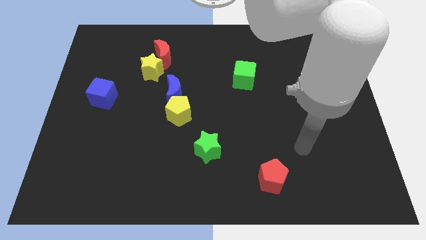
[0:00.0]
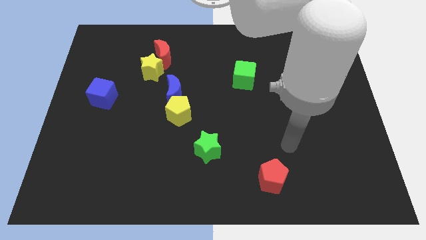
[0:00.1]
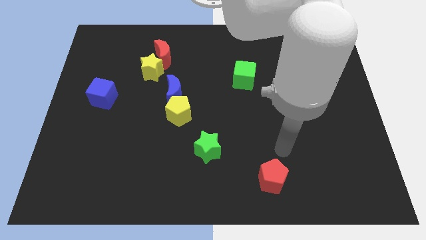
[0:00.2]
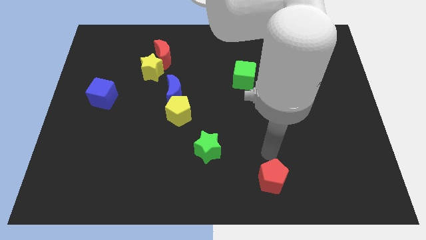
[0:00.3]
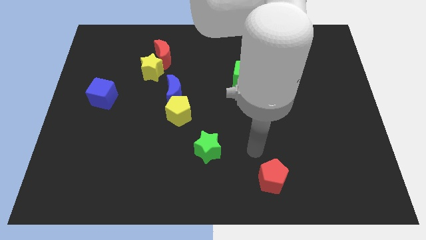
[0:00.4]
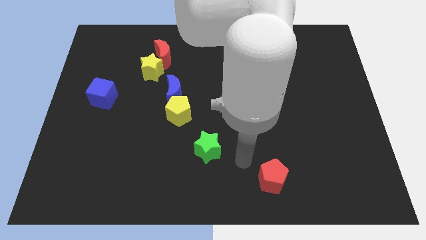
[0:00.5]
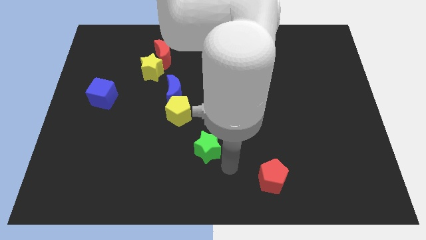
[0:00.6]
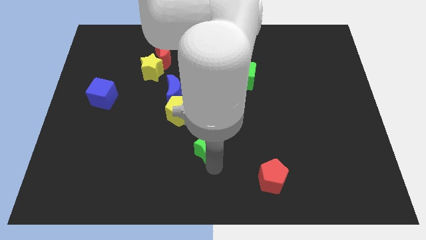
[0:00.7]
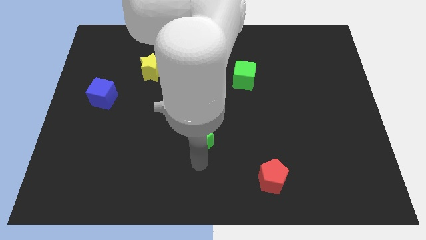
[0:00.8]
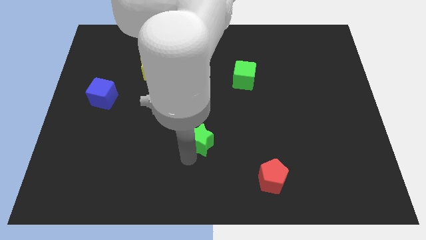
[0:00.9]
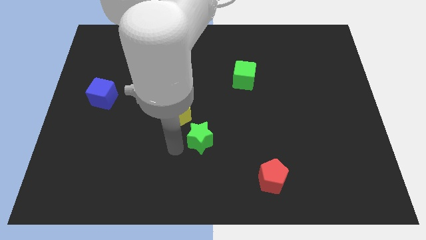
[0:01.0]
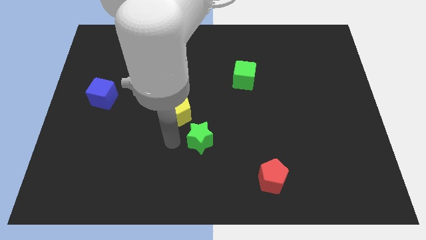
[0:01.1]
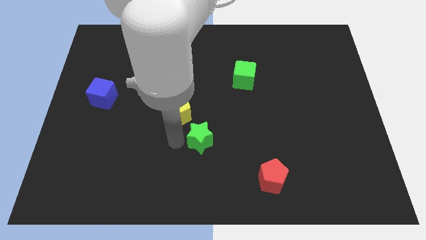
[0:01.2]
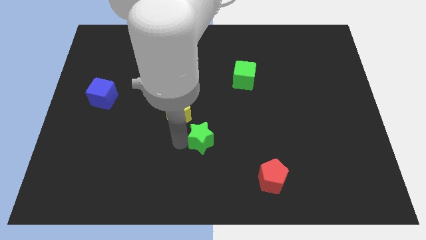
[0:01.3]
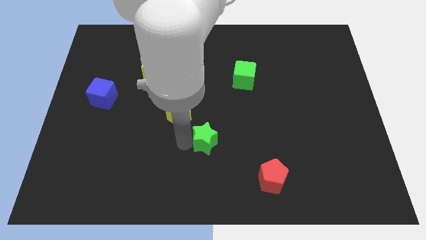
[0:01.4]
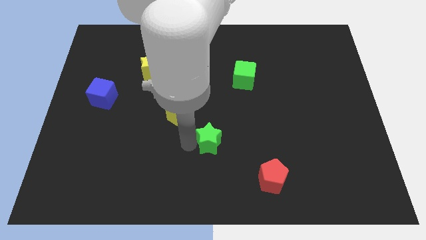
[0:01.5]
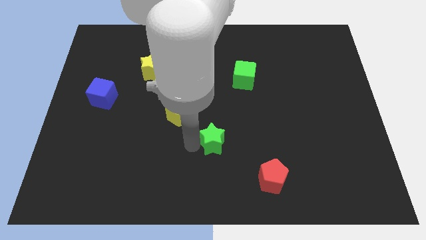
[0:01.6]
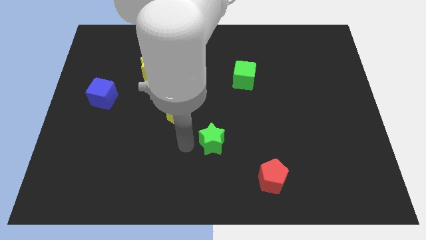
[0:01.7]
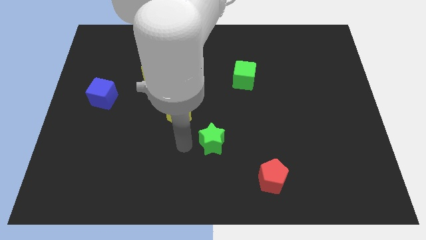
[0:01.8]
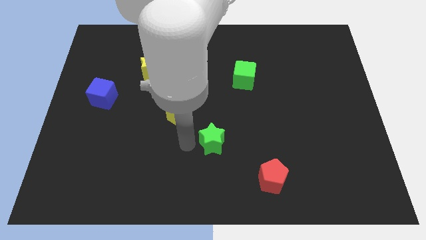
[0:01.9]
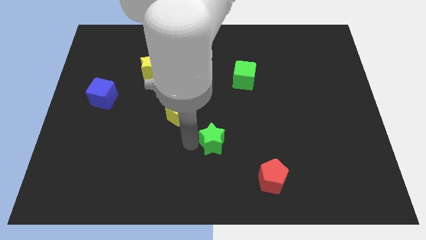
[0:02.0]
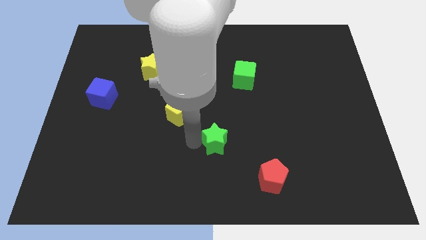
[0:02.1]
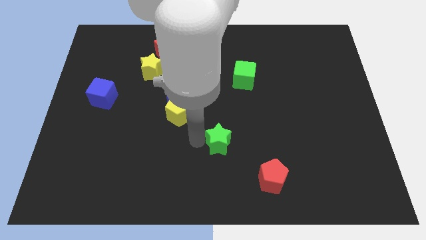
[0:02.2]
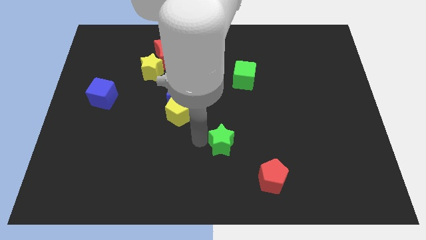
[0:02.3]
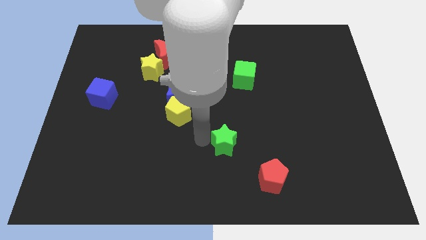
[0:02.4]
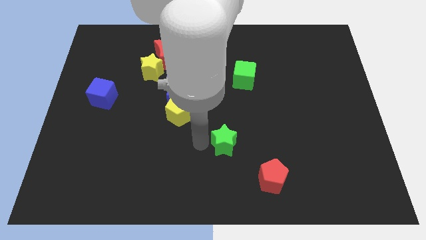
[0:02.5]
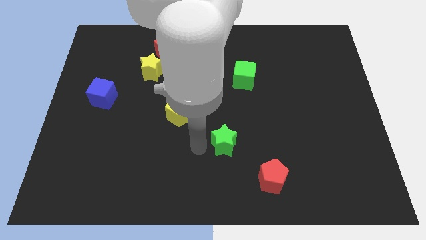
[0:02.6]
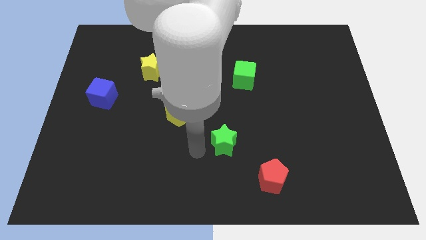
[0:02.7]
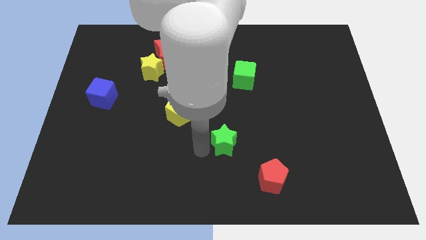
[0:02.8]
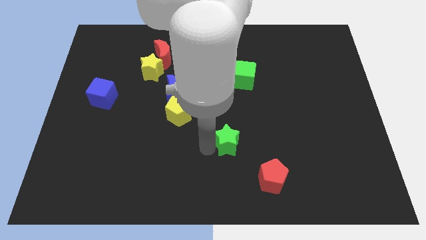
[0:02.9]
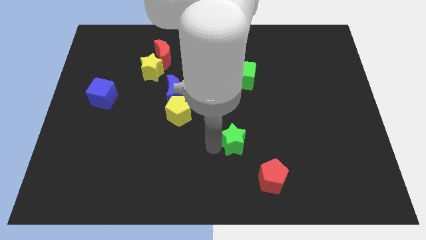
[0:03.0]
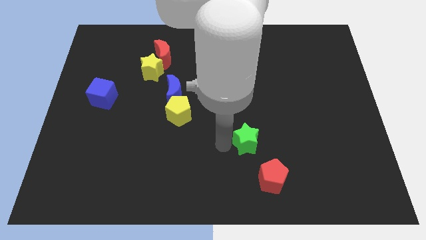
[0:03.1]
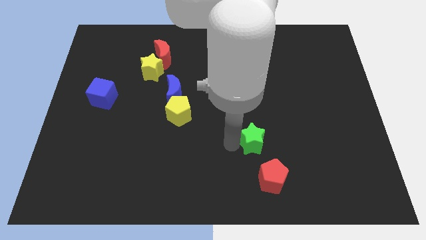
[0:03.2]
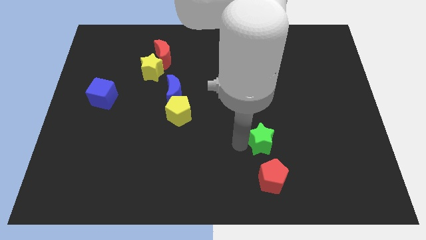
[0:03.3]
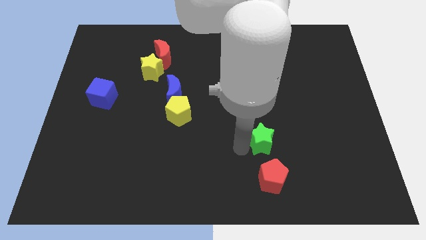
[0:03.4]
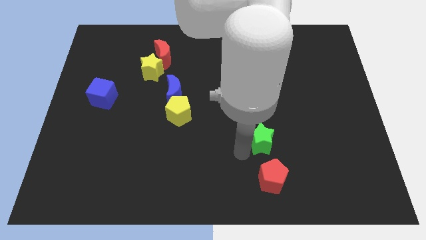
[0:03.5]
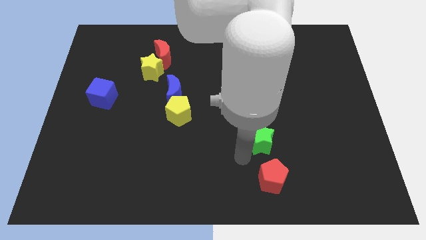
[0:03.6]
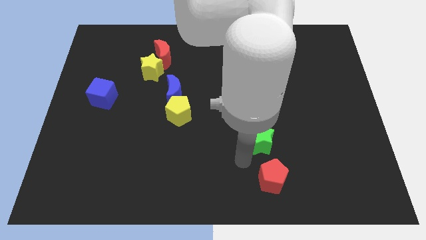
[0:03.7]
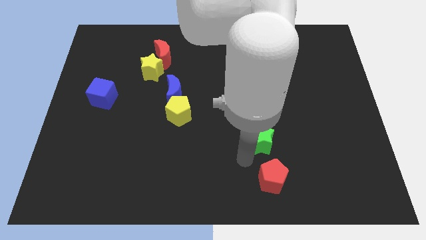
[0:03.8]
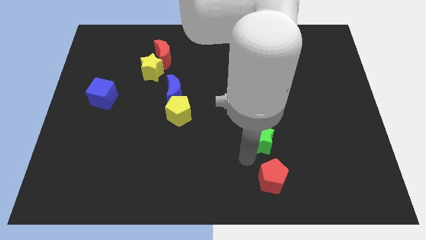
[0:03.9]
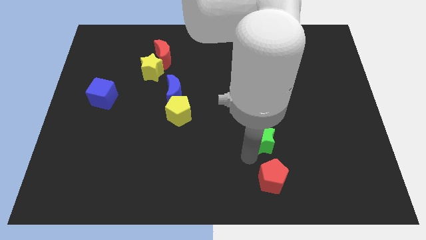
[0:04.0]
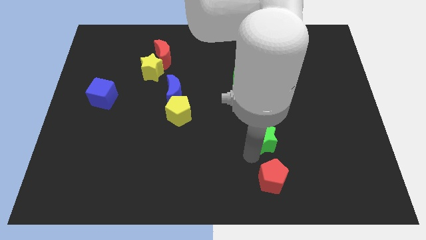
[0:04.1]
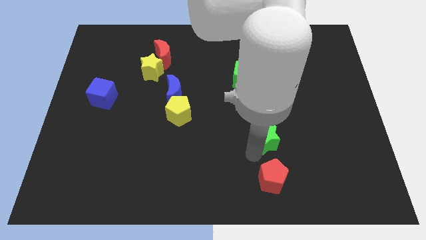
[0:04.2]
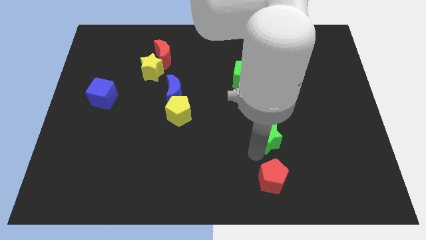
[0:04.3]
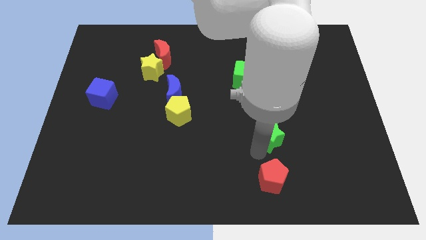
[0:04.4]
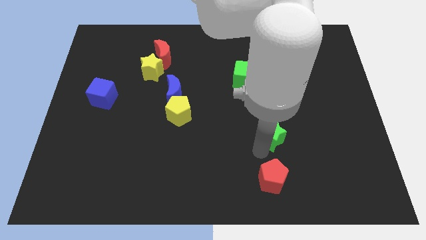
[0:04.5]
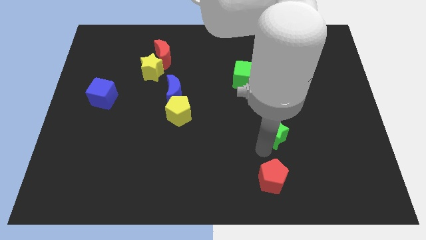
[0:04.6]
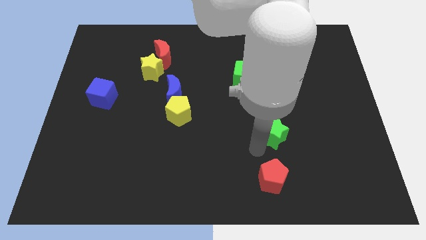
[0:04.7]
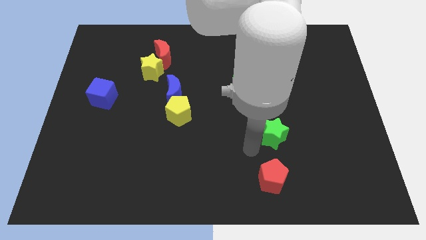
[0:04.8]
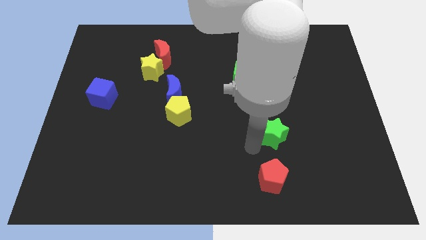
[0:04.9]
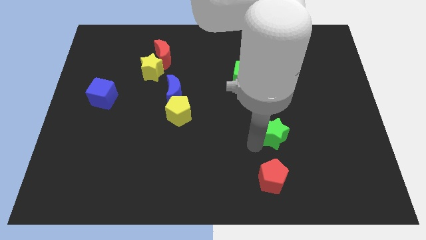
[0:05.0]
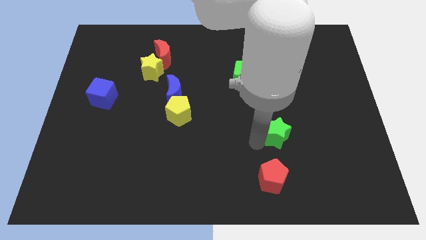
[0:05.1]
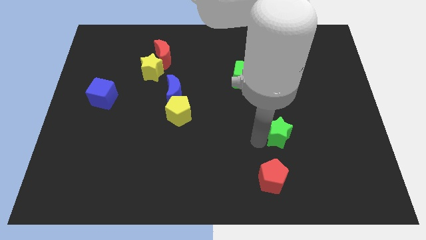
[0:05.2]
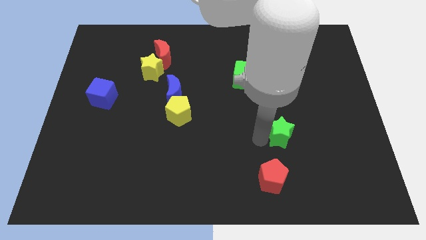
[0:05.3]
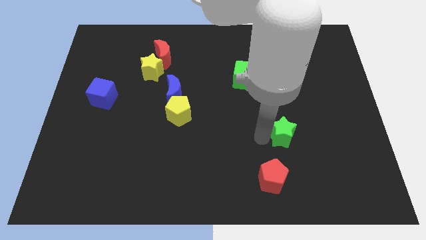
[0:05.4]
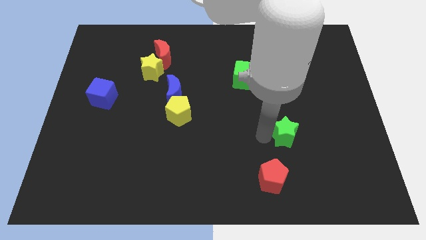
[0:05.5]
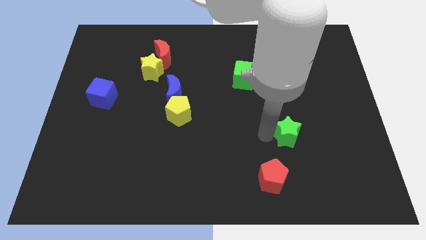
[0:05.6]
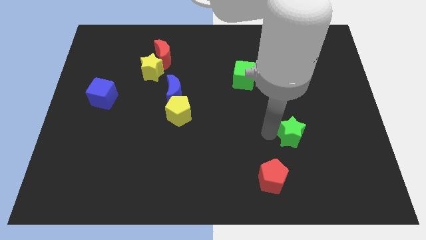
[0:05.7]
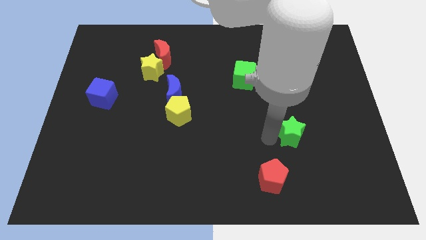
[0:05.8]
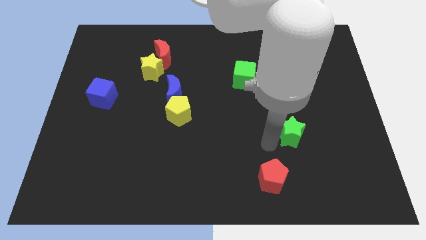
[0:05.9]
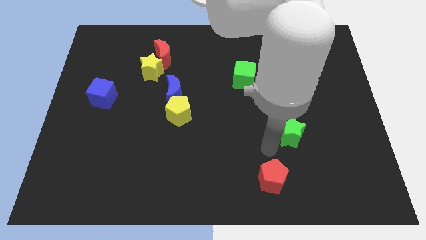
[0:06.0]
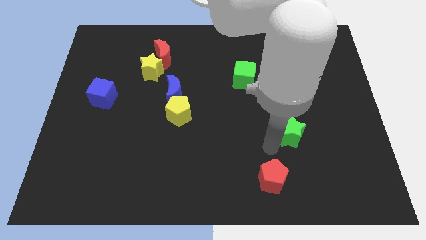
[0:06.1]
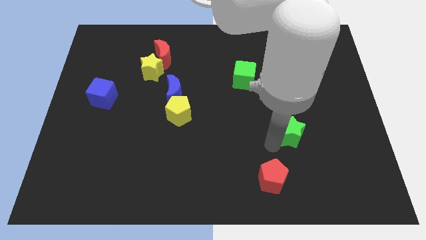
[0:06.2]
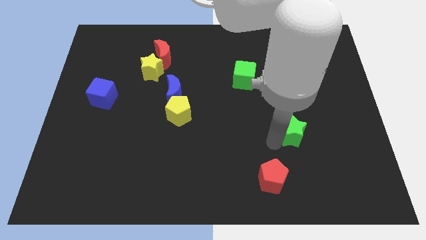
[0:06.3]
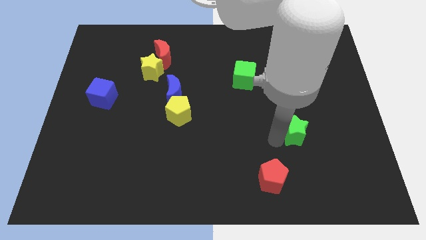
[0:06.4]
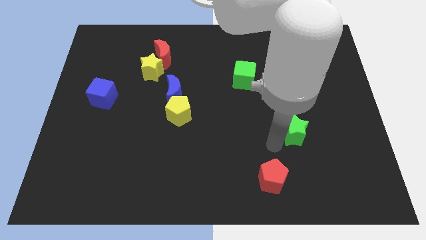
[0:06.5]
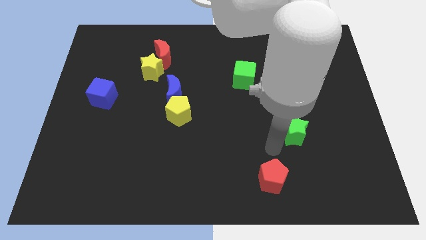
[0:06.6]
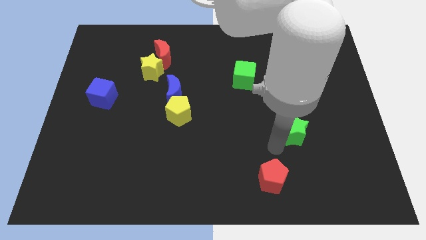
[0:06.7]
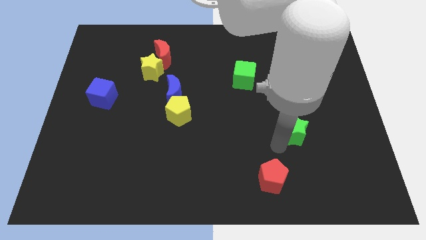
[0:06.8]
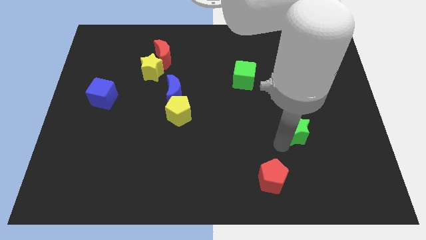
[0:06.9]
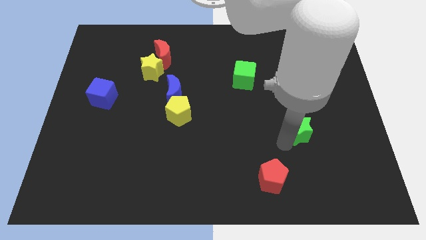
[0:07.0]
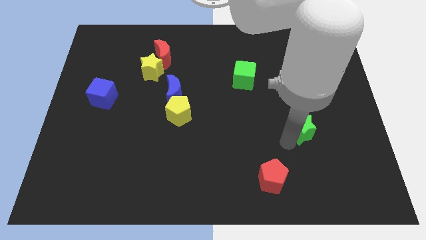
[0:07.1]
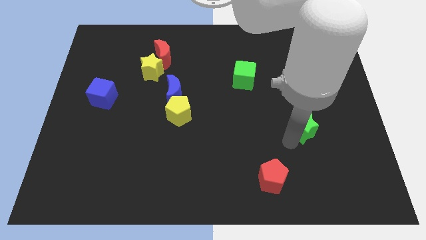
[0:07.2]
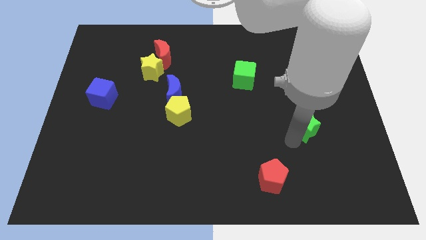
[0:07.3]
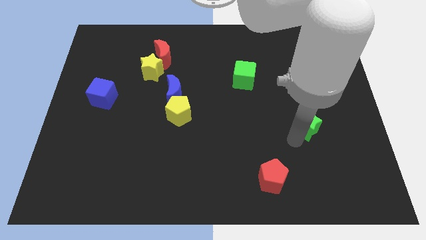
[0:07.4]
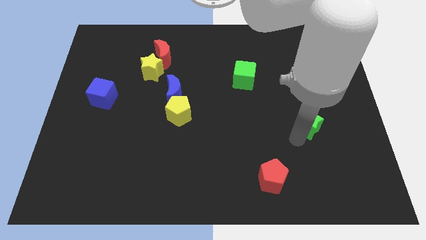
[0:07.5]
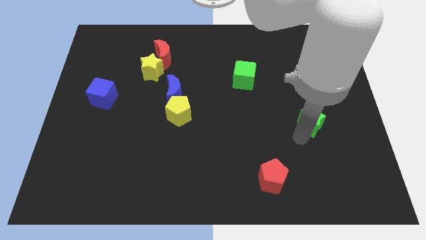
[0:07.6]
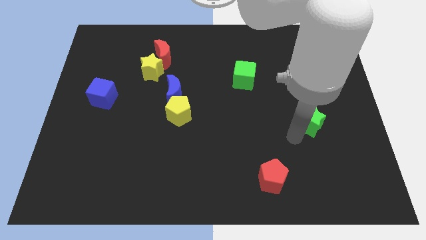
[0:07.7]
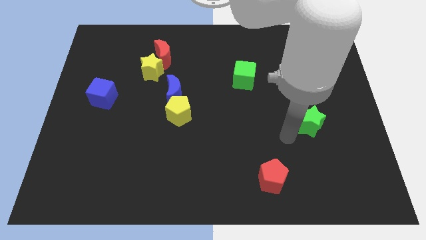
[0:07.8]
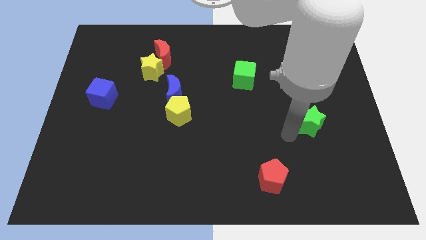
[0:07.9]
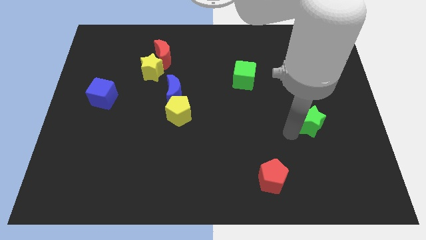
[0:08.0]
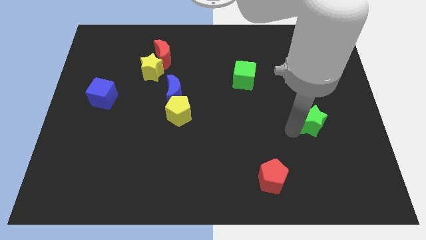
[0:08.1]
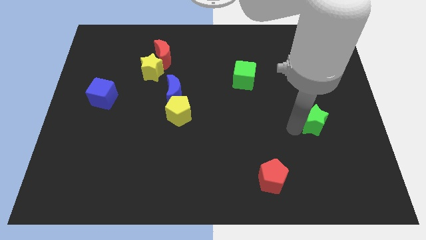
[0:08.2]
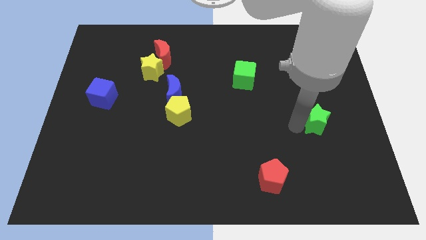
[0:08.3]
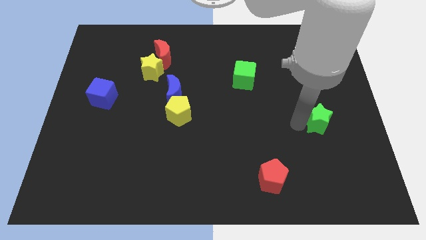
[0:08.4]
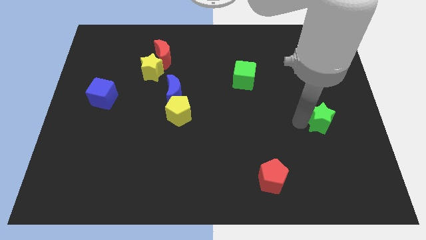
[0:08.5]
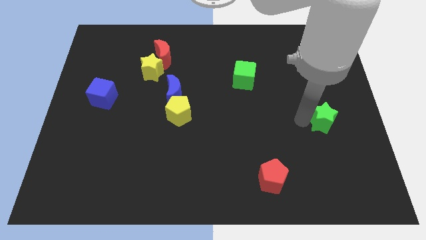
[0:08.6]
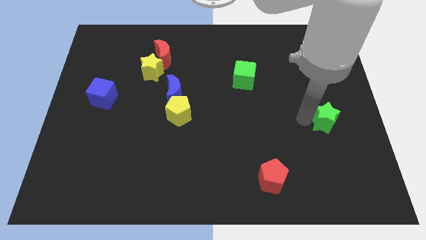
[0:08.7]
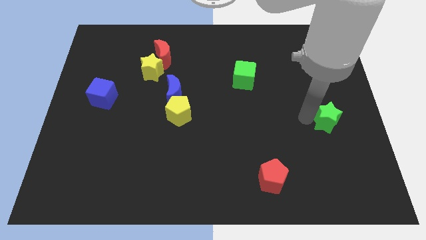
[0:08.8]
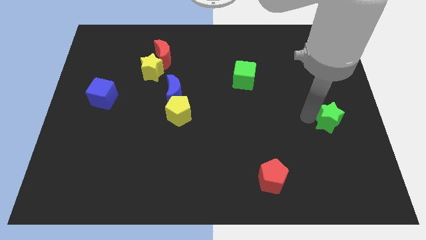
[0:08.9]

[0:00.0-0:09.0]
put the green star to the right side of the board
